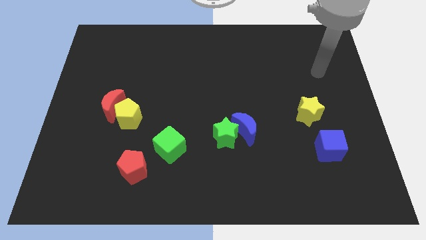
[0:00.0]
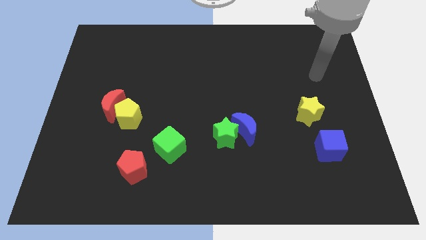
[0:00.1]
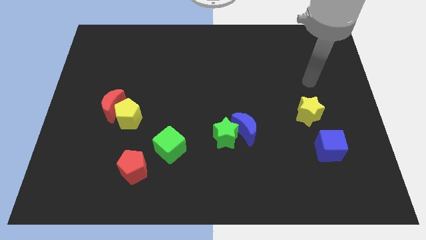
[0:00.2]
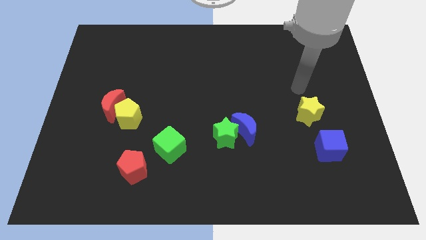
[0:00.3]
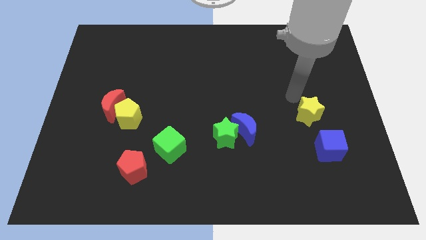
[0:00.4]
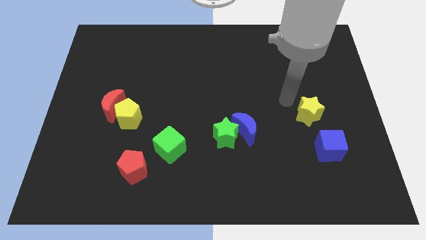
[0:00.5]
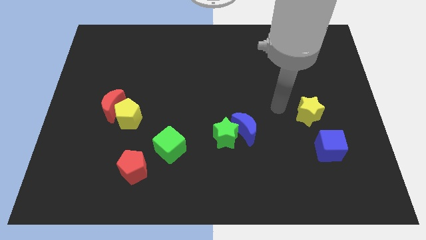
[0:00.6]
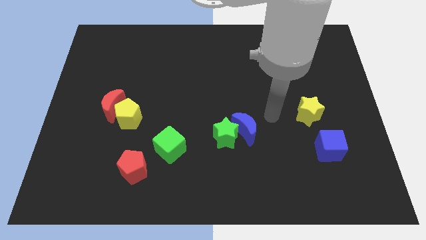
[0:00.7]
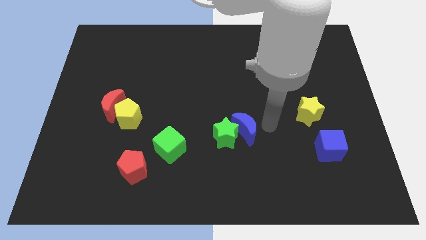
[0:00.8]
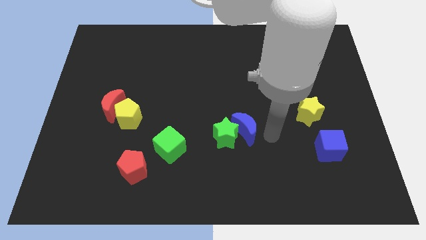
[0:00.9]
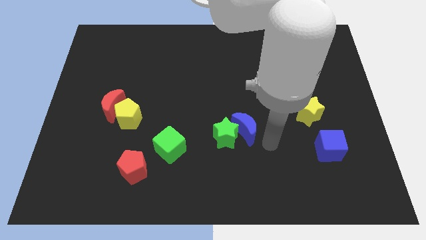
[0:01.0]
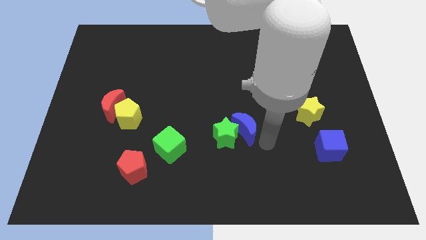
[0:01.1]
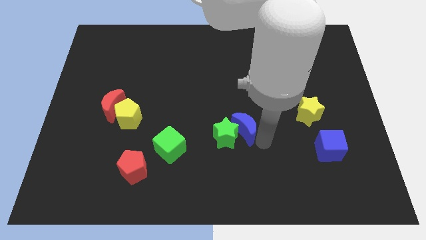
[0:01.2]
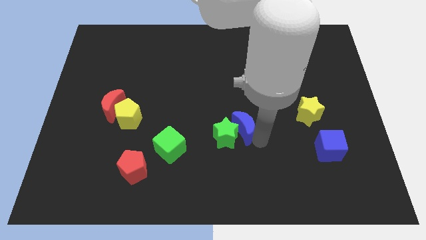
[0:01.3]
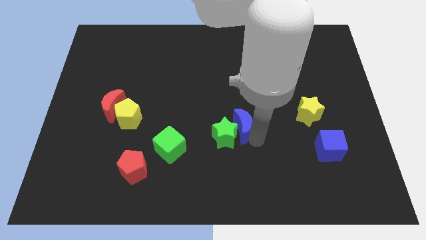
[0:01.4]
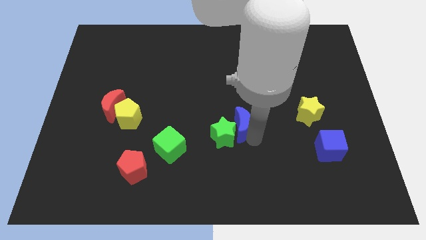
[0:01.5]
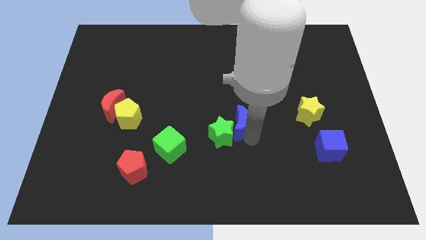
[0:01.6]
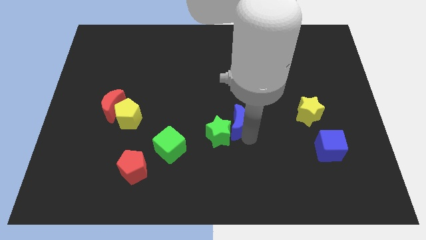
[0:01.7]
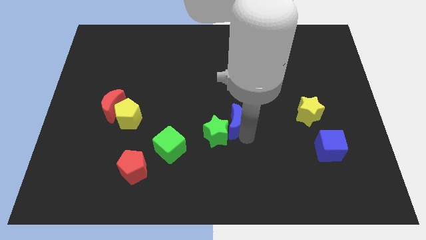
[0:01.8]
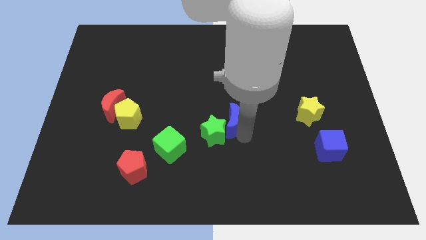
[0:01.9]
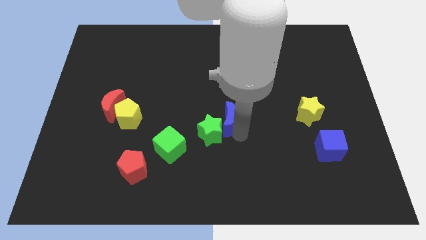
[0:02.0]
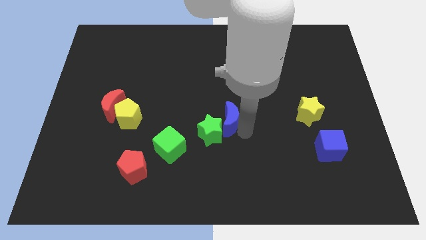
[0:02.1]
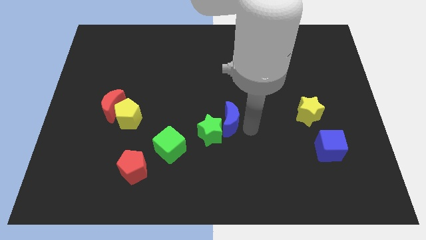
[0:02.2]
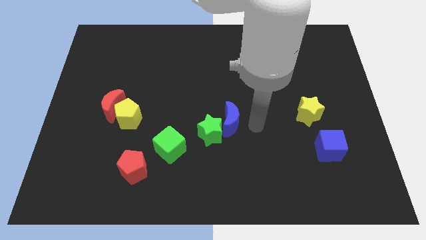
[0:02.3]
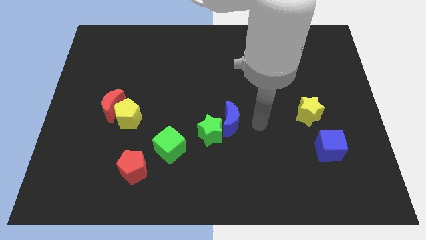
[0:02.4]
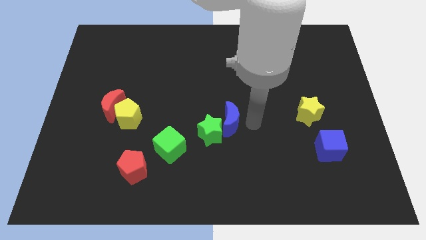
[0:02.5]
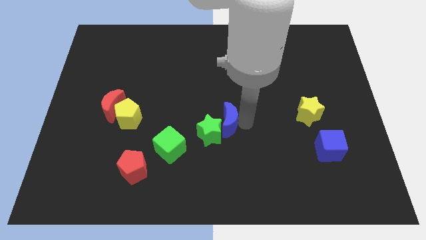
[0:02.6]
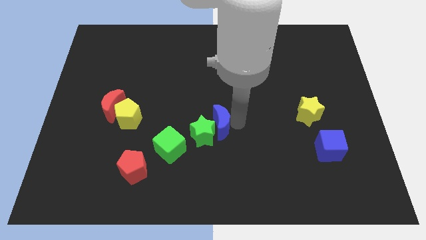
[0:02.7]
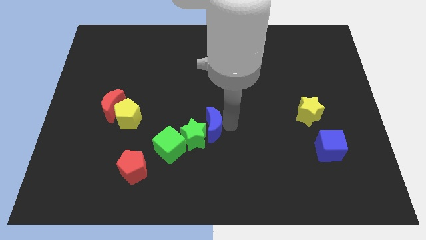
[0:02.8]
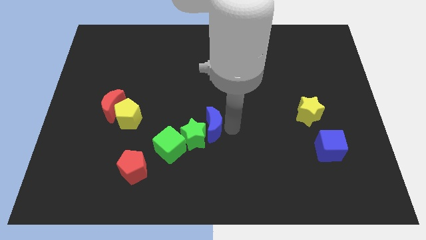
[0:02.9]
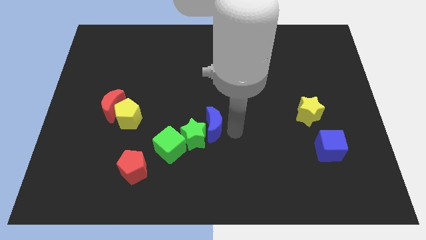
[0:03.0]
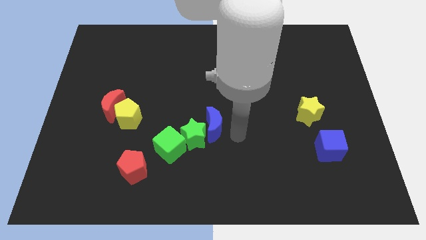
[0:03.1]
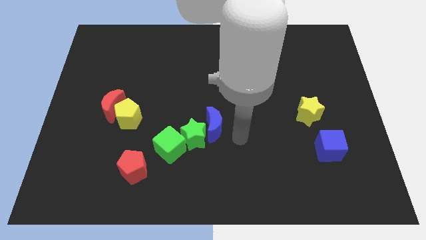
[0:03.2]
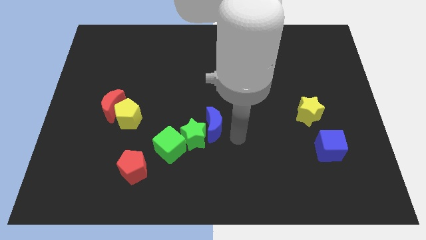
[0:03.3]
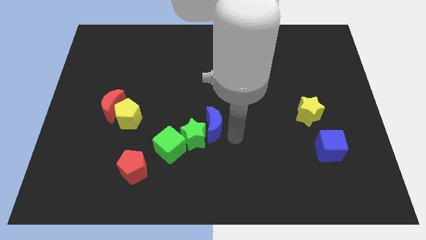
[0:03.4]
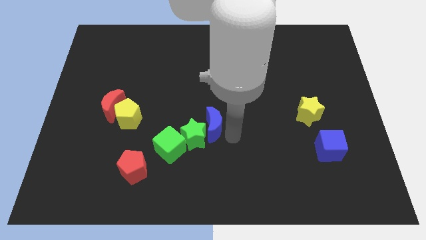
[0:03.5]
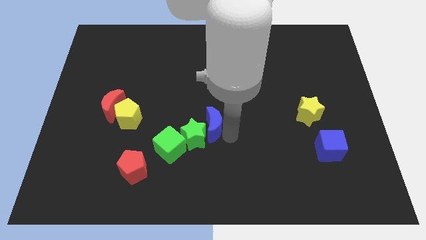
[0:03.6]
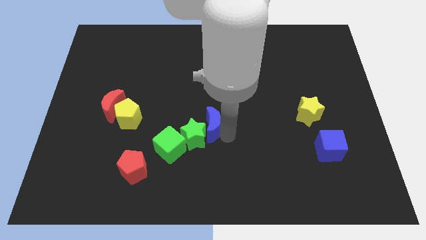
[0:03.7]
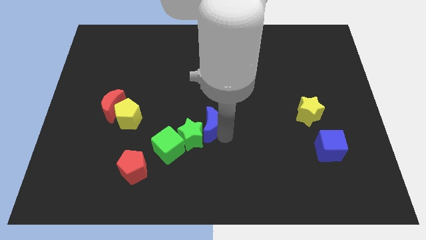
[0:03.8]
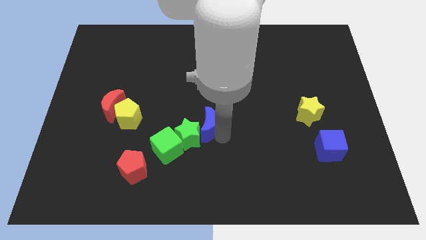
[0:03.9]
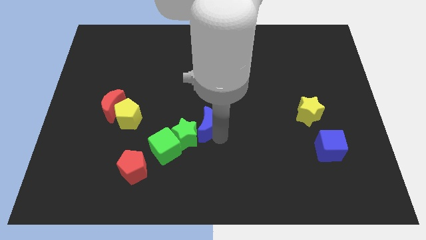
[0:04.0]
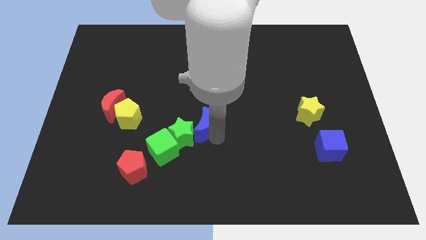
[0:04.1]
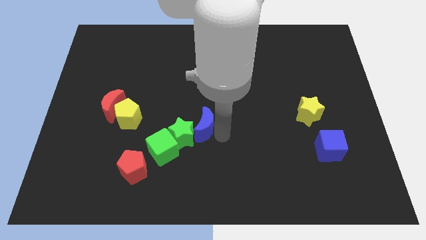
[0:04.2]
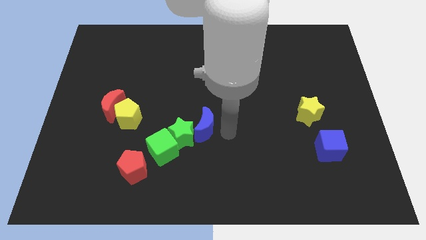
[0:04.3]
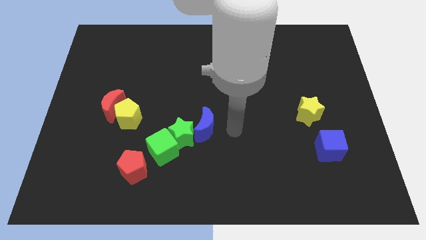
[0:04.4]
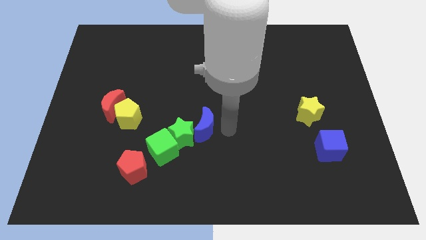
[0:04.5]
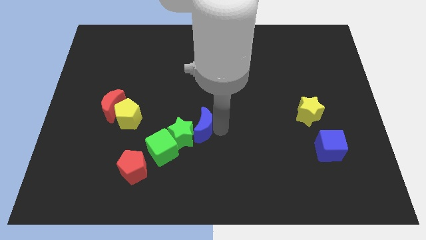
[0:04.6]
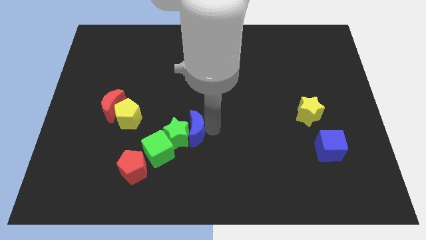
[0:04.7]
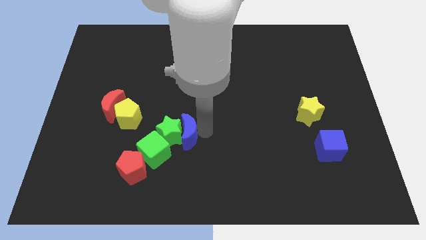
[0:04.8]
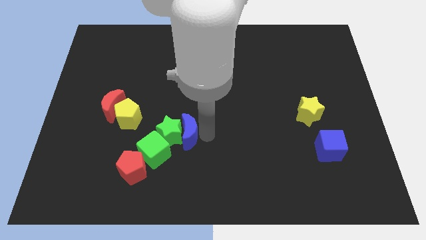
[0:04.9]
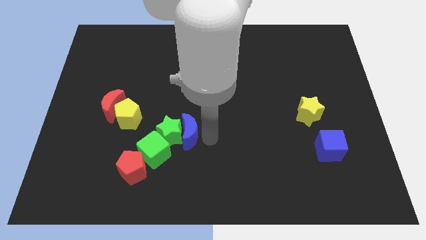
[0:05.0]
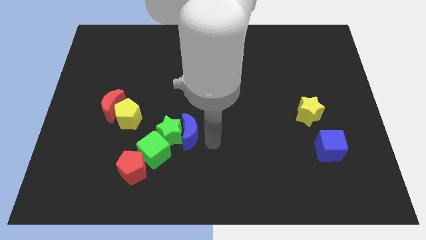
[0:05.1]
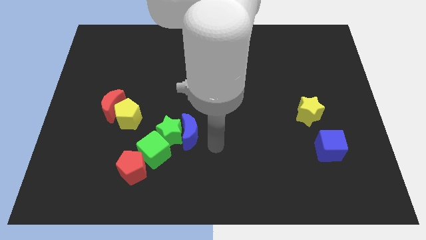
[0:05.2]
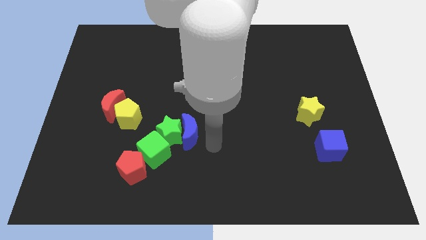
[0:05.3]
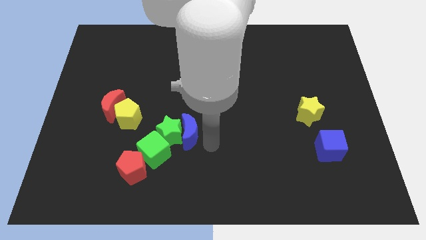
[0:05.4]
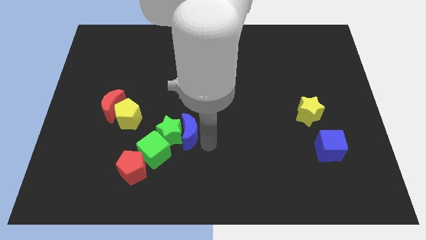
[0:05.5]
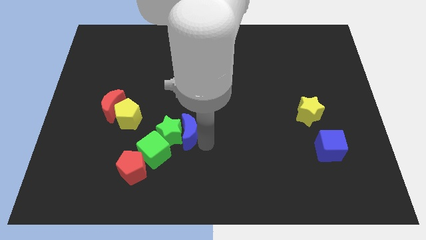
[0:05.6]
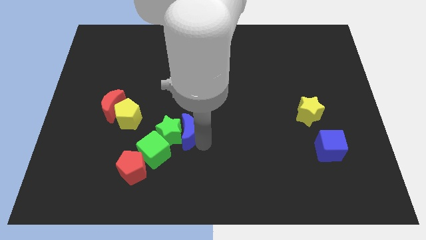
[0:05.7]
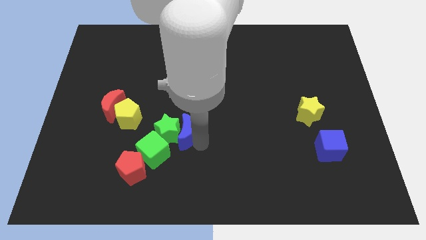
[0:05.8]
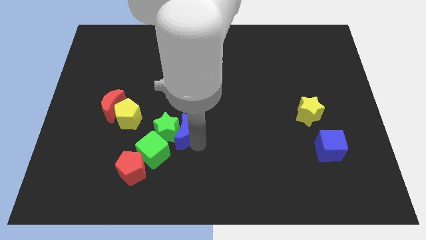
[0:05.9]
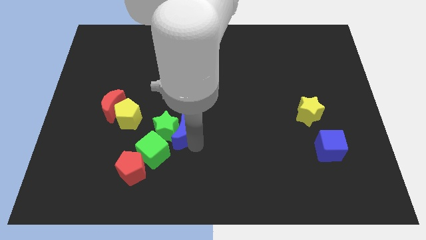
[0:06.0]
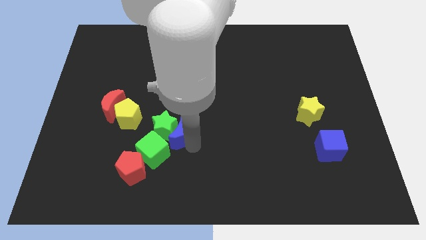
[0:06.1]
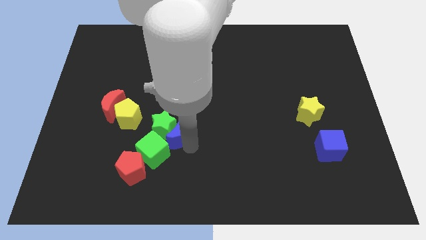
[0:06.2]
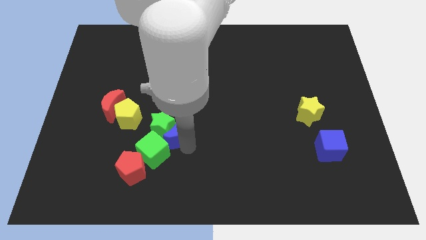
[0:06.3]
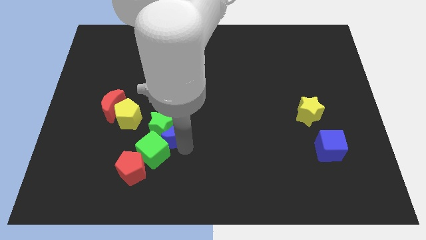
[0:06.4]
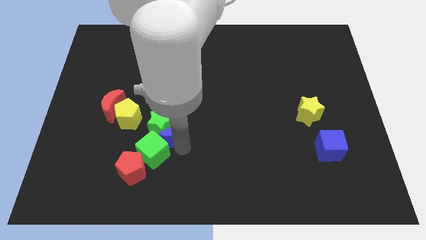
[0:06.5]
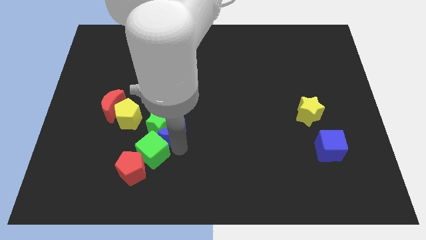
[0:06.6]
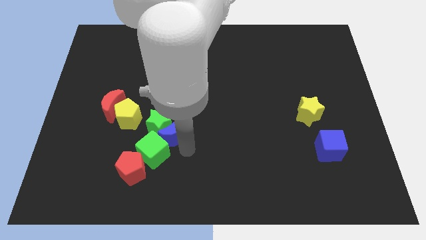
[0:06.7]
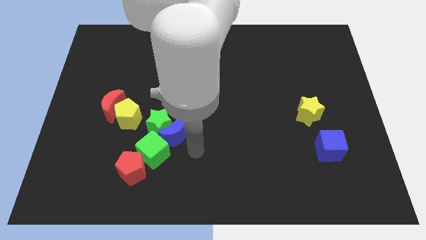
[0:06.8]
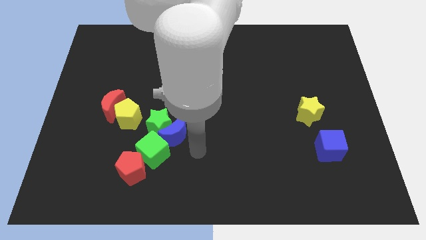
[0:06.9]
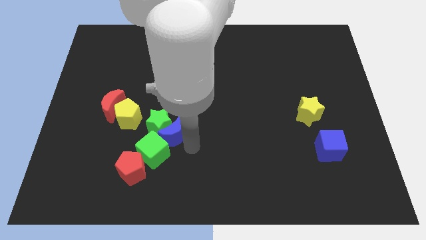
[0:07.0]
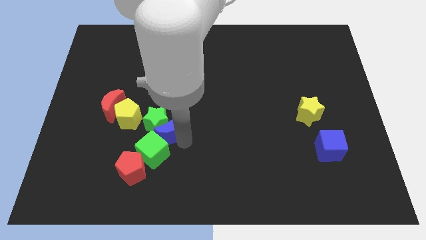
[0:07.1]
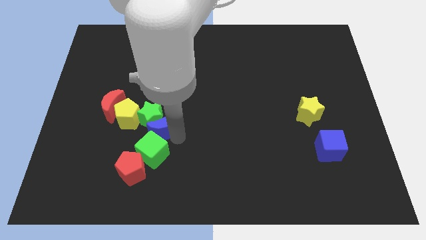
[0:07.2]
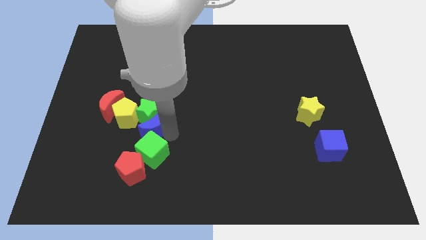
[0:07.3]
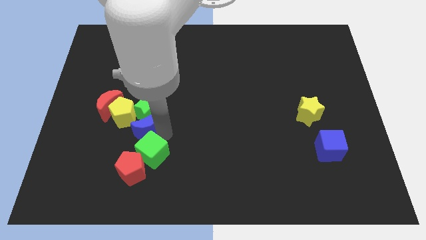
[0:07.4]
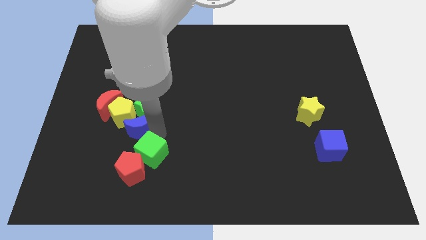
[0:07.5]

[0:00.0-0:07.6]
move the blue moon to the yellow pentagon

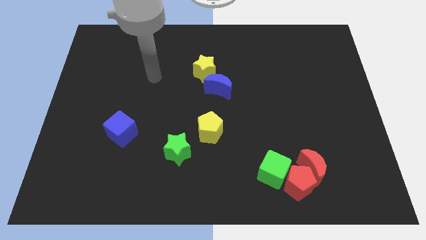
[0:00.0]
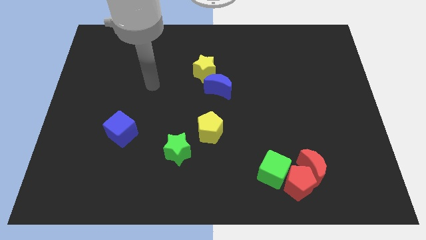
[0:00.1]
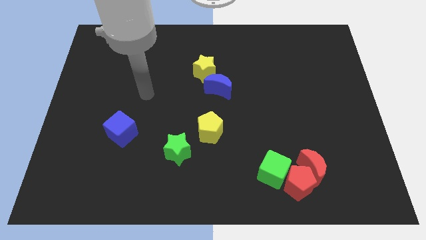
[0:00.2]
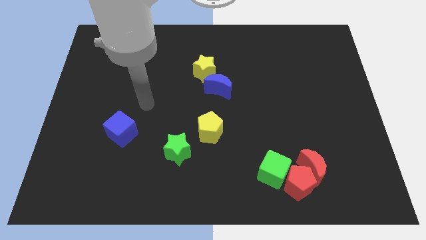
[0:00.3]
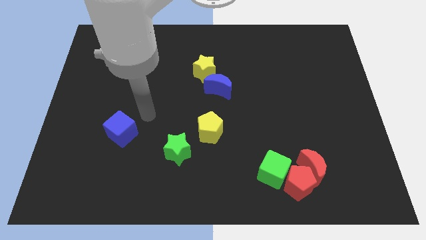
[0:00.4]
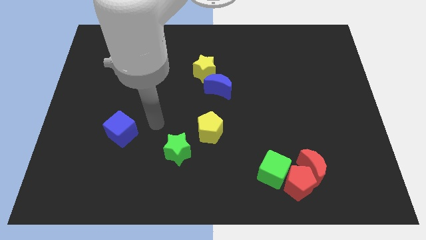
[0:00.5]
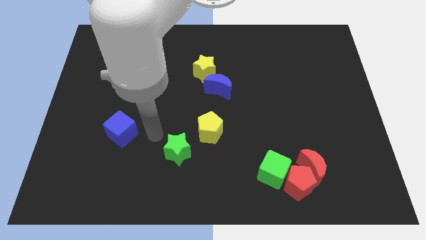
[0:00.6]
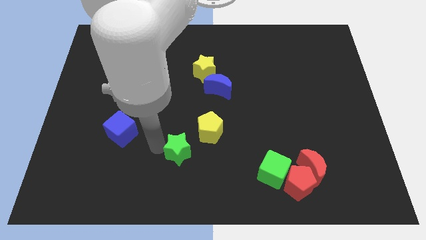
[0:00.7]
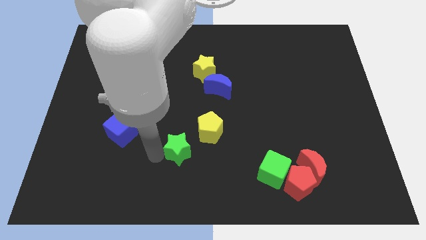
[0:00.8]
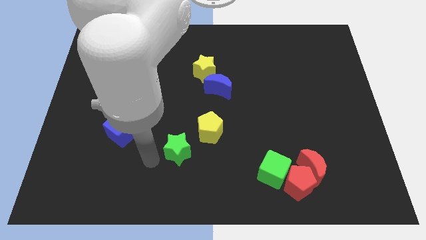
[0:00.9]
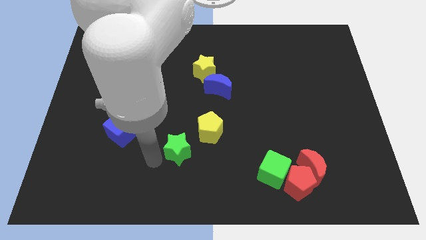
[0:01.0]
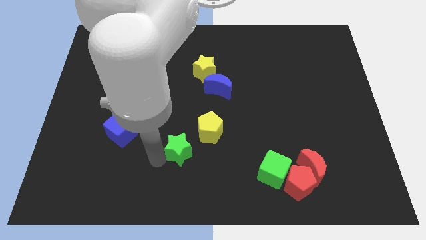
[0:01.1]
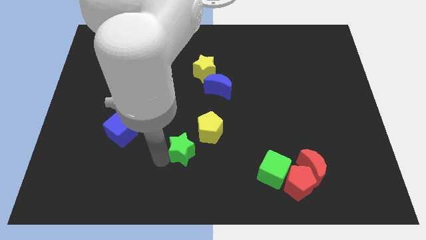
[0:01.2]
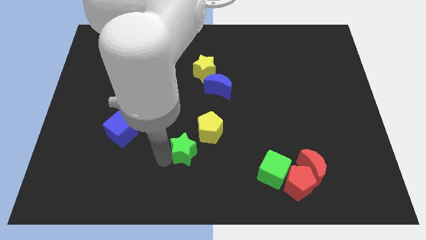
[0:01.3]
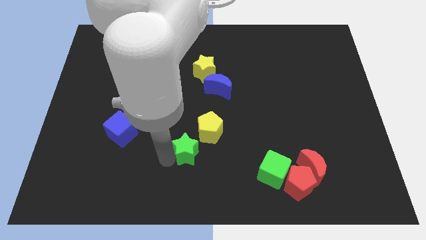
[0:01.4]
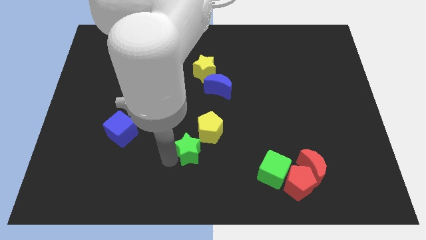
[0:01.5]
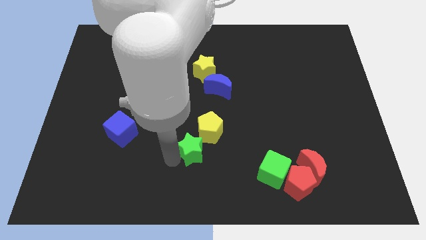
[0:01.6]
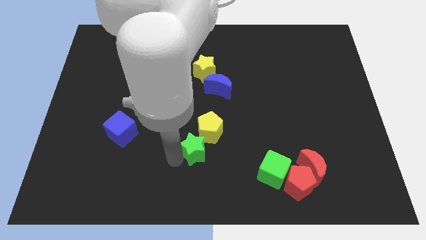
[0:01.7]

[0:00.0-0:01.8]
slide the green star next to the yellow pentagon
